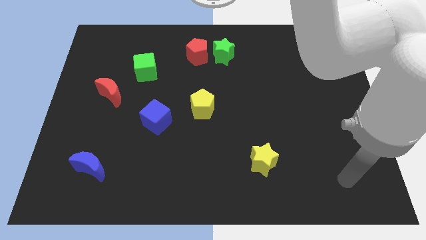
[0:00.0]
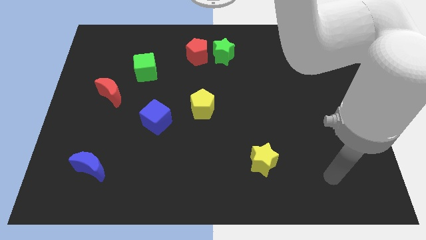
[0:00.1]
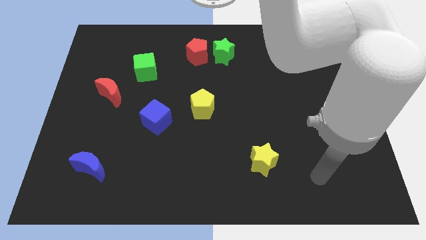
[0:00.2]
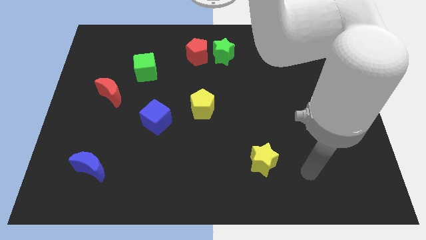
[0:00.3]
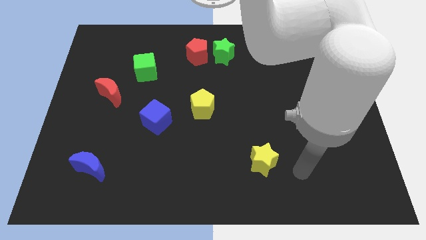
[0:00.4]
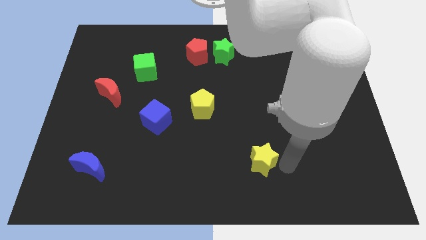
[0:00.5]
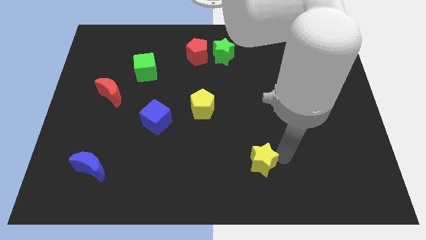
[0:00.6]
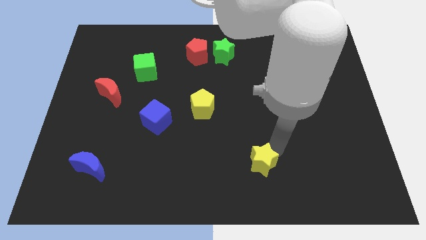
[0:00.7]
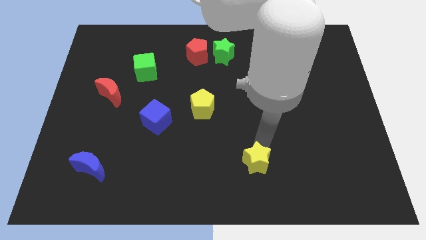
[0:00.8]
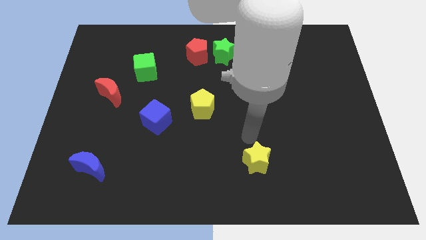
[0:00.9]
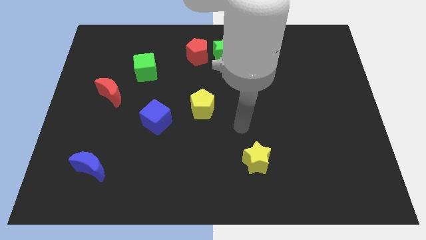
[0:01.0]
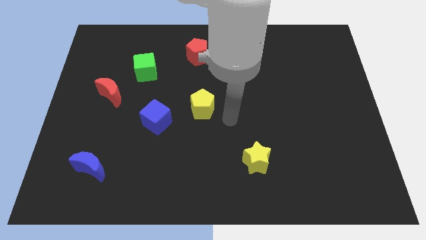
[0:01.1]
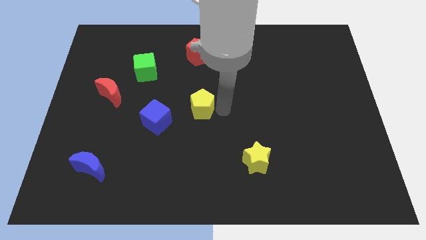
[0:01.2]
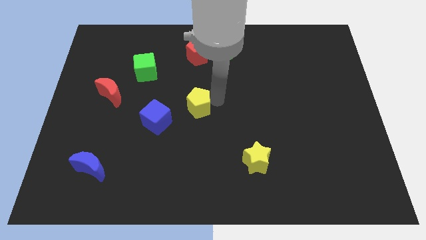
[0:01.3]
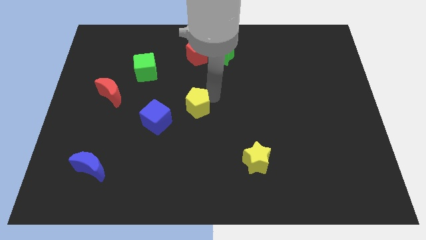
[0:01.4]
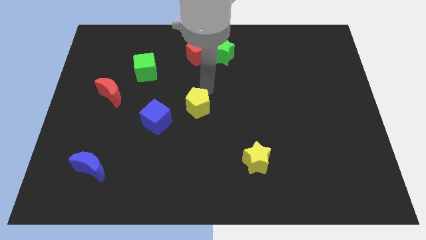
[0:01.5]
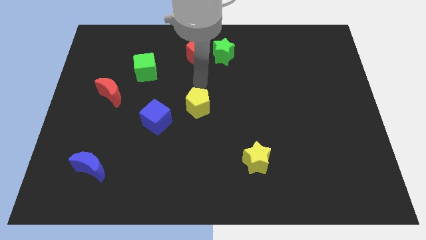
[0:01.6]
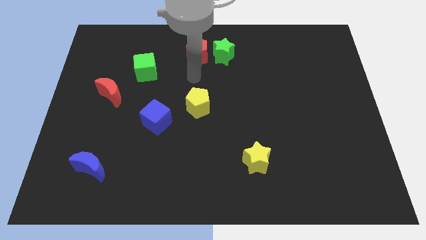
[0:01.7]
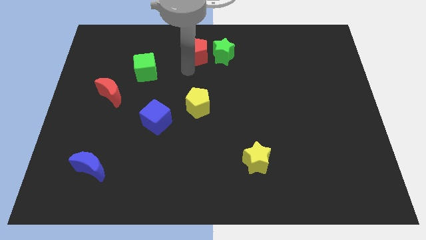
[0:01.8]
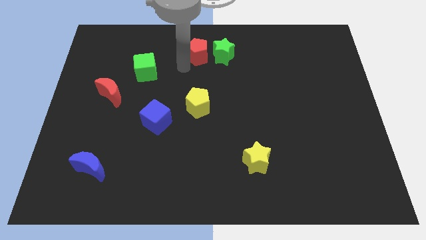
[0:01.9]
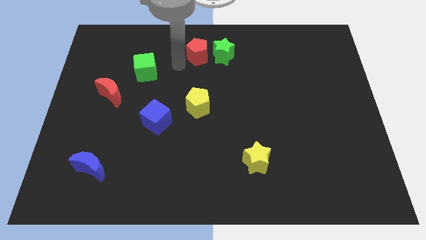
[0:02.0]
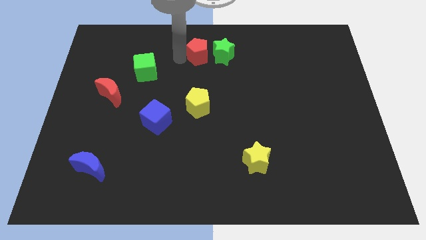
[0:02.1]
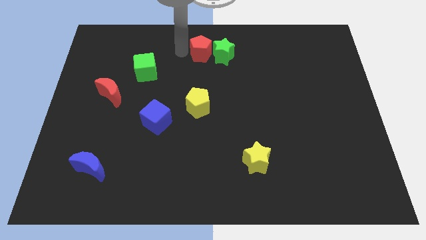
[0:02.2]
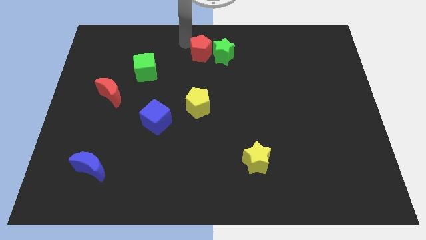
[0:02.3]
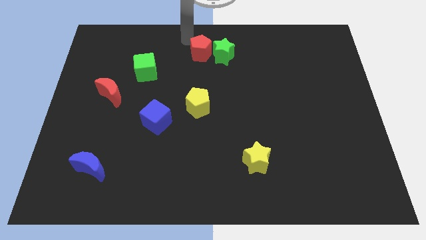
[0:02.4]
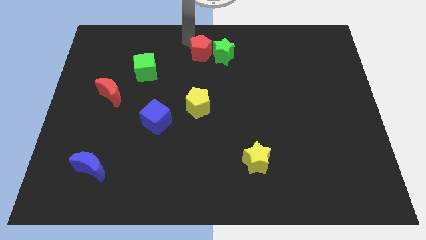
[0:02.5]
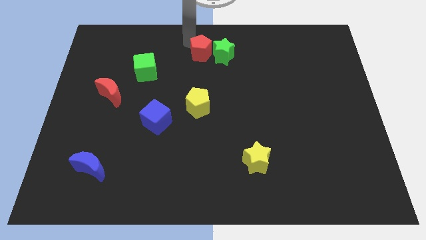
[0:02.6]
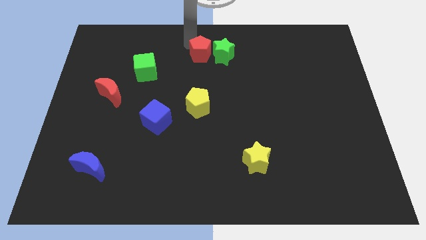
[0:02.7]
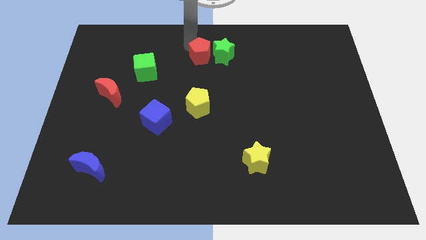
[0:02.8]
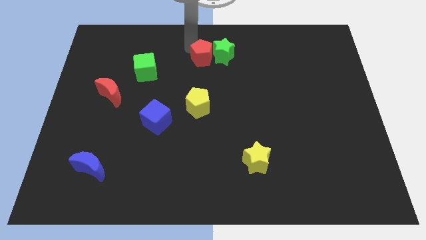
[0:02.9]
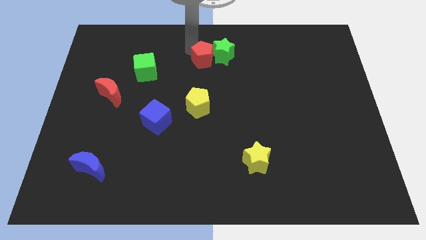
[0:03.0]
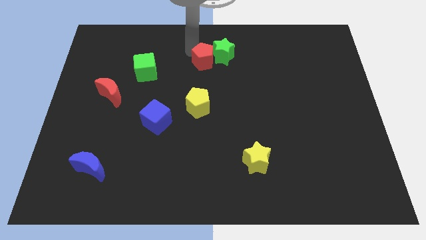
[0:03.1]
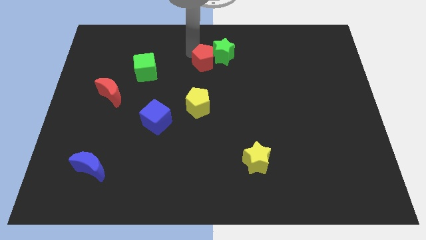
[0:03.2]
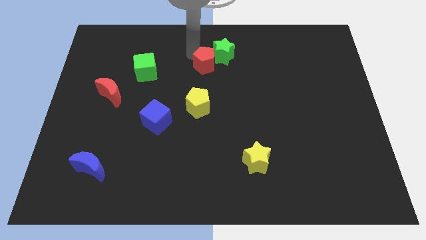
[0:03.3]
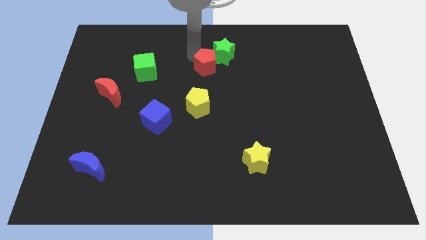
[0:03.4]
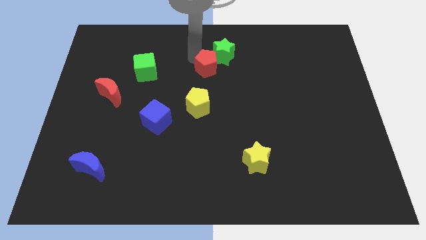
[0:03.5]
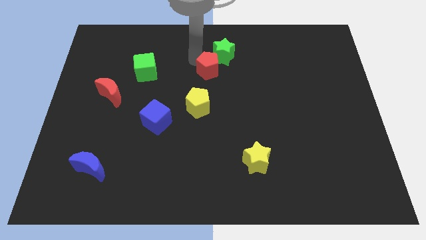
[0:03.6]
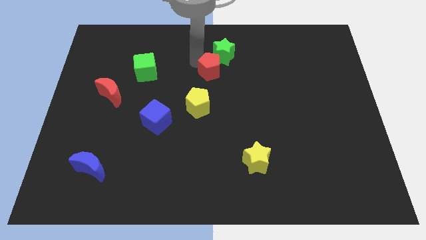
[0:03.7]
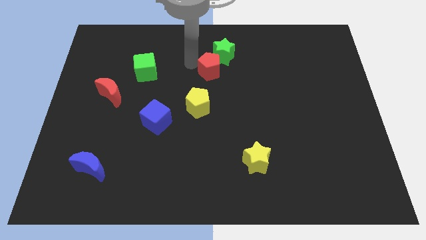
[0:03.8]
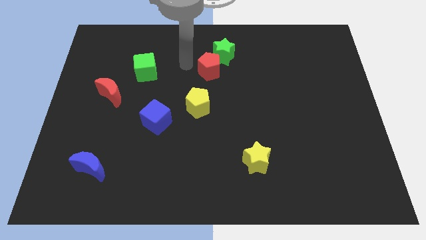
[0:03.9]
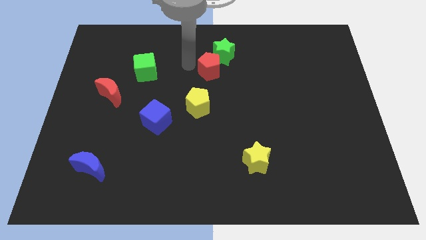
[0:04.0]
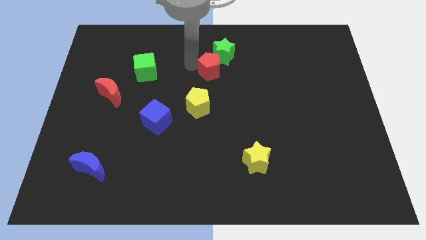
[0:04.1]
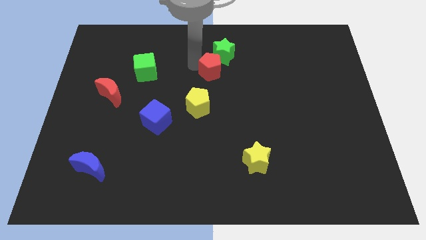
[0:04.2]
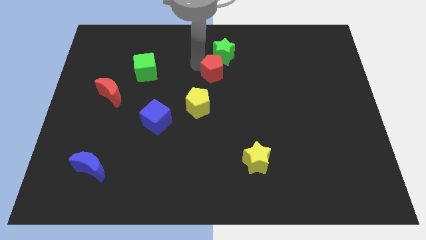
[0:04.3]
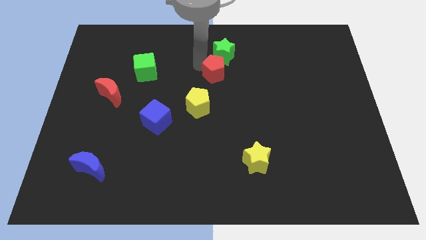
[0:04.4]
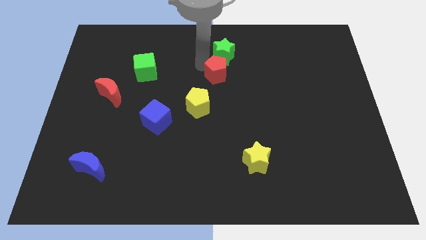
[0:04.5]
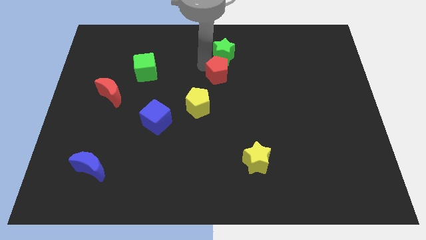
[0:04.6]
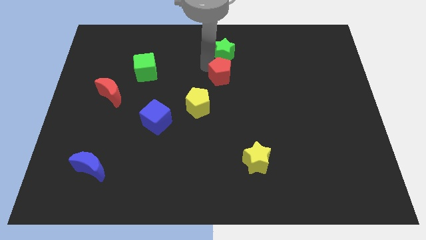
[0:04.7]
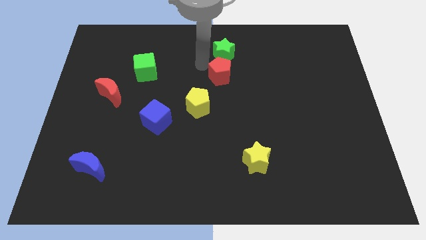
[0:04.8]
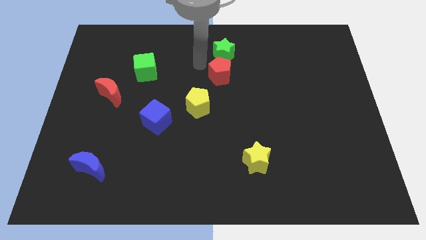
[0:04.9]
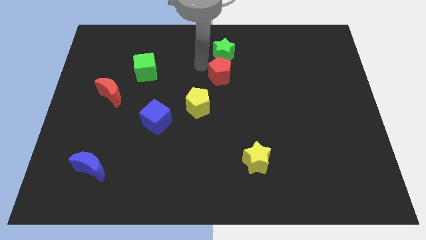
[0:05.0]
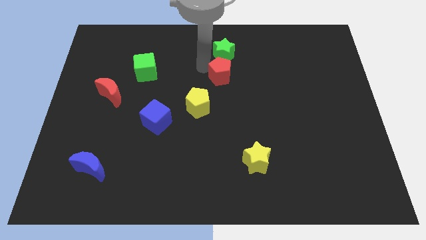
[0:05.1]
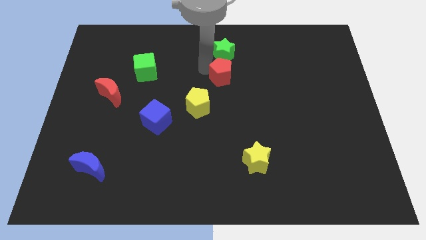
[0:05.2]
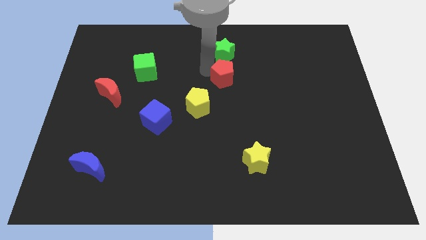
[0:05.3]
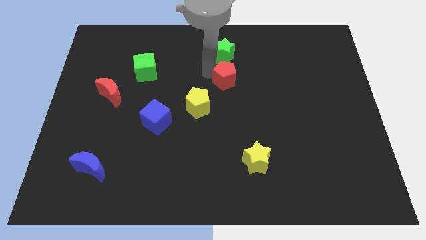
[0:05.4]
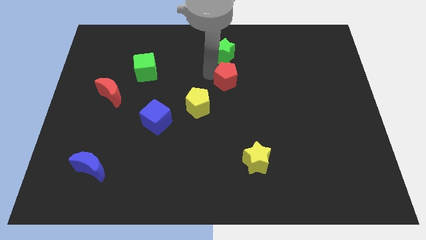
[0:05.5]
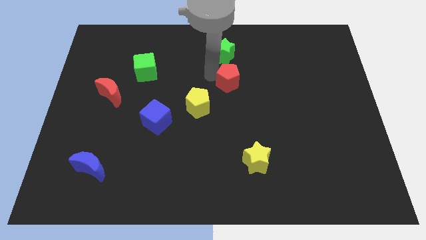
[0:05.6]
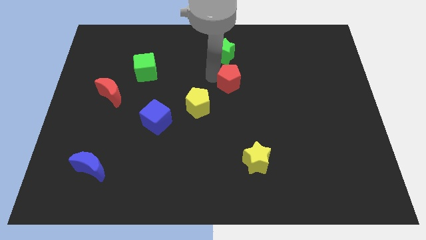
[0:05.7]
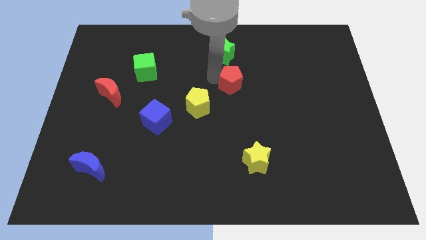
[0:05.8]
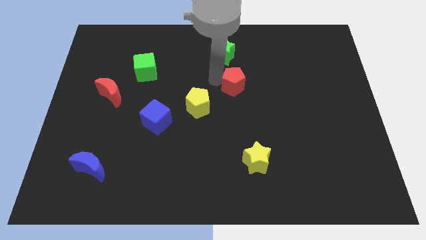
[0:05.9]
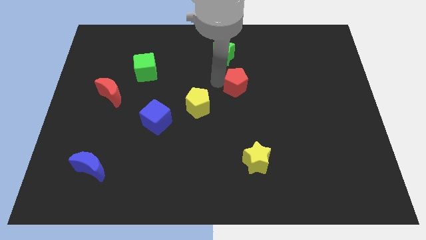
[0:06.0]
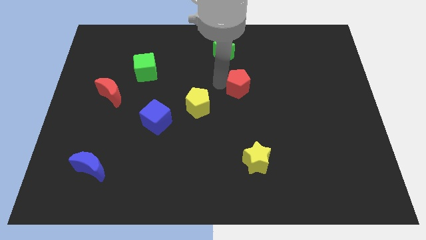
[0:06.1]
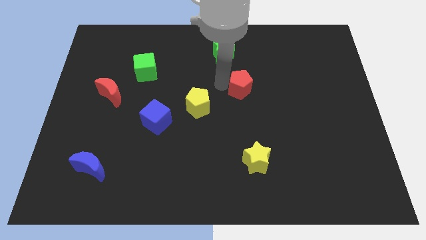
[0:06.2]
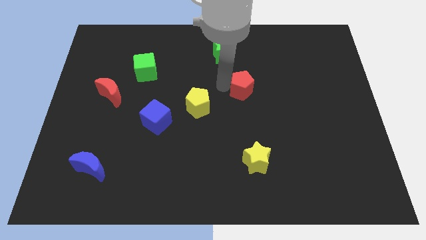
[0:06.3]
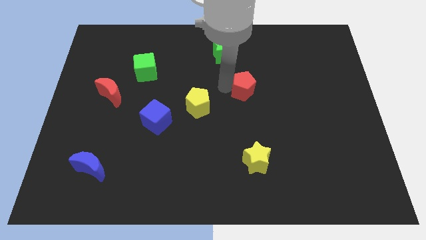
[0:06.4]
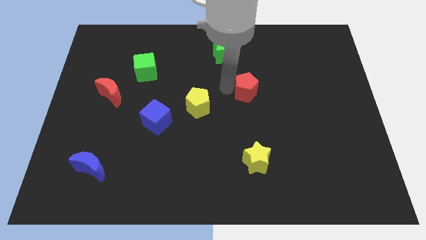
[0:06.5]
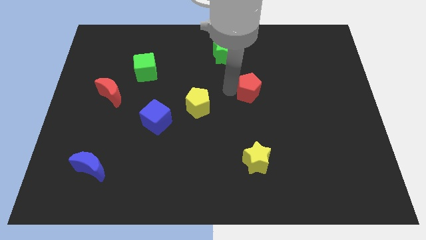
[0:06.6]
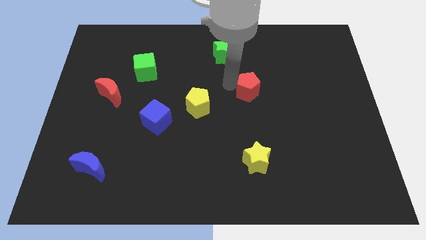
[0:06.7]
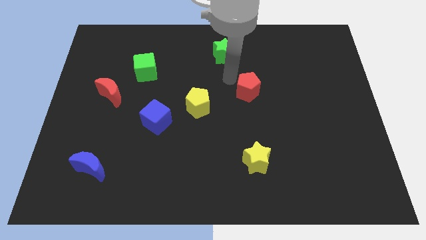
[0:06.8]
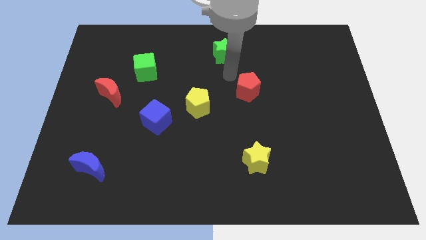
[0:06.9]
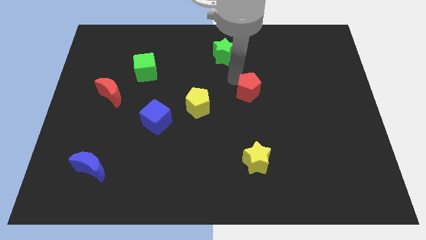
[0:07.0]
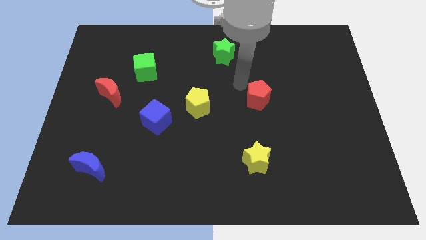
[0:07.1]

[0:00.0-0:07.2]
move the red pentagon diagonally down and to the right

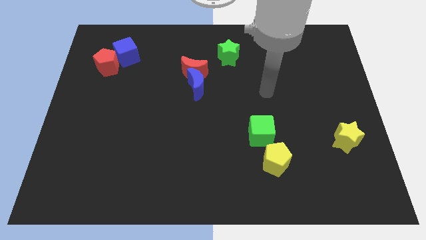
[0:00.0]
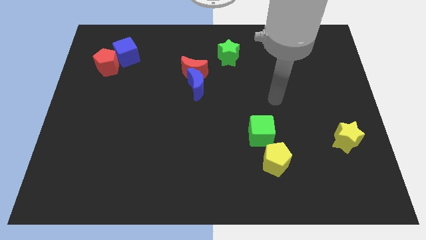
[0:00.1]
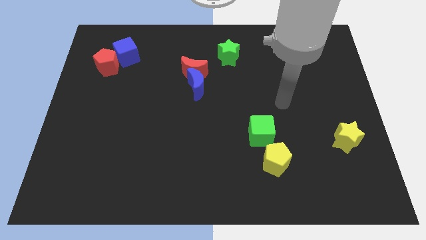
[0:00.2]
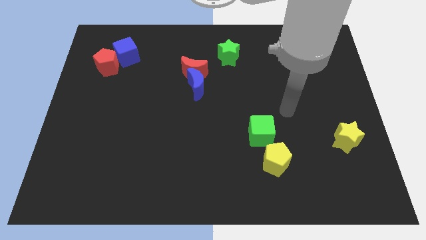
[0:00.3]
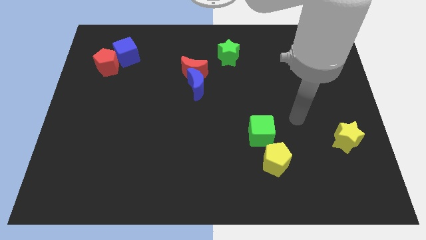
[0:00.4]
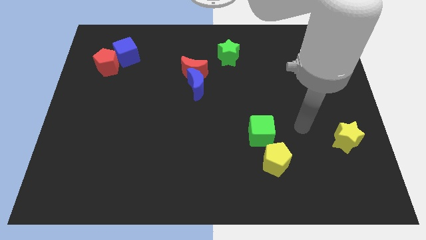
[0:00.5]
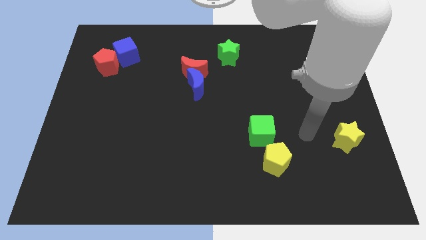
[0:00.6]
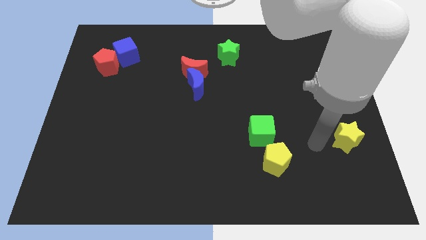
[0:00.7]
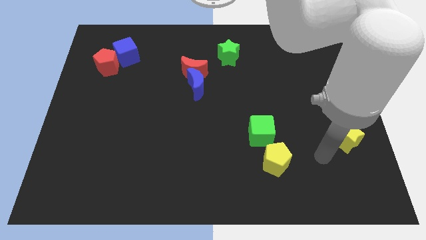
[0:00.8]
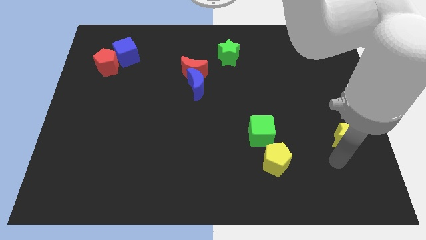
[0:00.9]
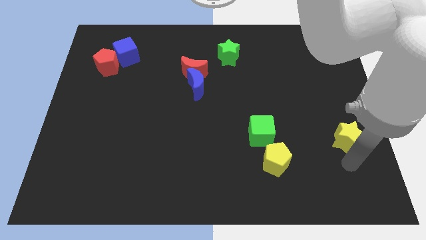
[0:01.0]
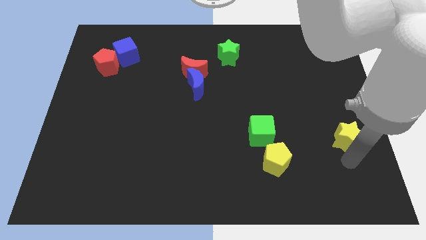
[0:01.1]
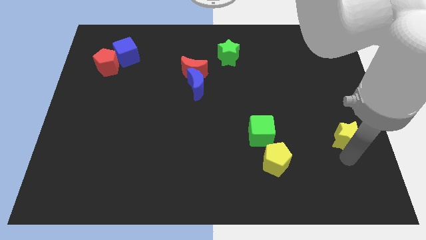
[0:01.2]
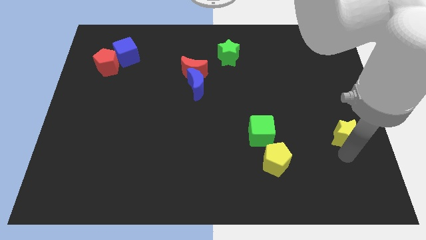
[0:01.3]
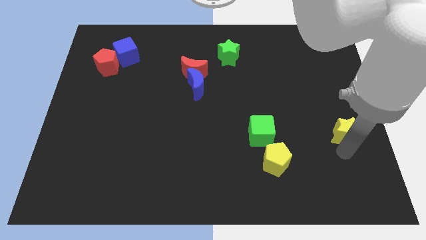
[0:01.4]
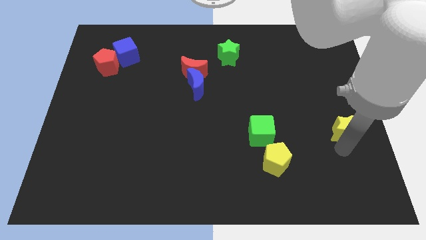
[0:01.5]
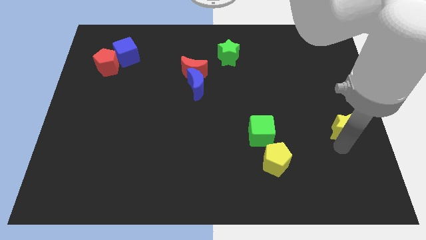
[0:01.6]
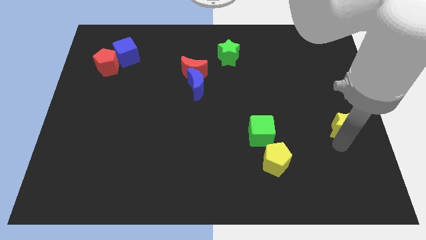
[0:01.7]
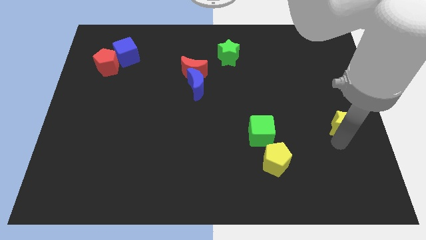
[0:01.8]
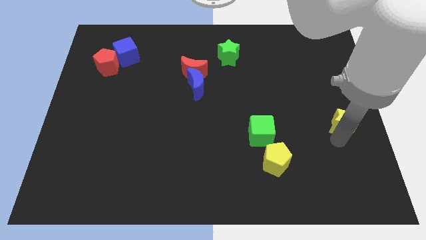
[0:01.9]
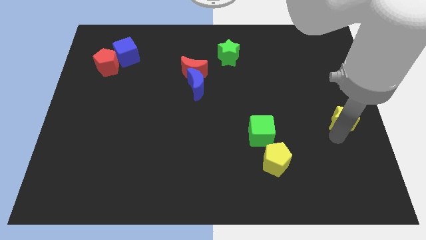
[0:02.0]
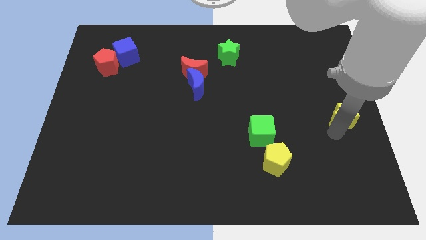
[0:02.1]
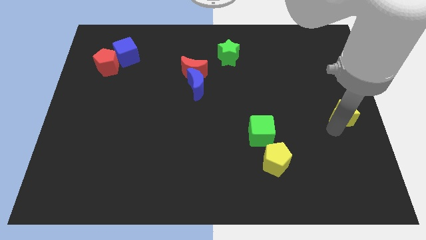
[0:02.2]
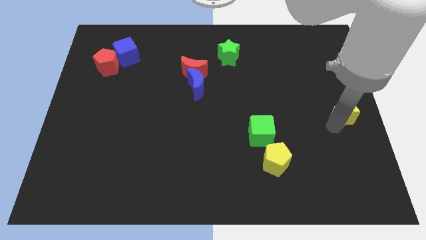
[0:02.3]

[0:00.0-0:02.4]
slightly slide the yellow star upwards
